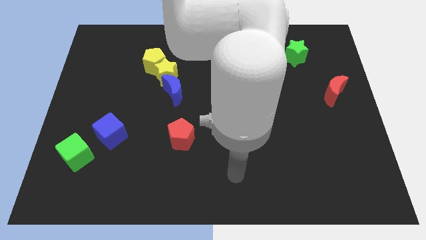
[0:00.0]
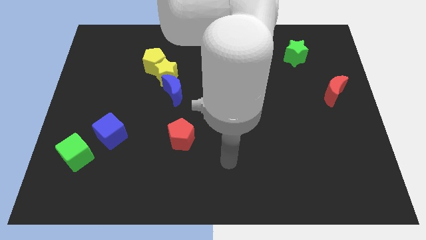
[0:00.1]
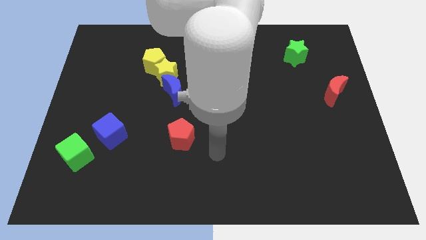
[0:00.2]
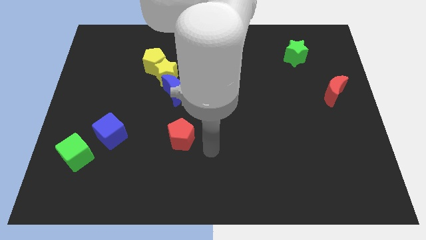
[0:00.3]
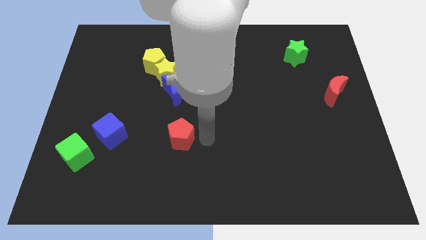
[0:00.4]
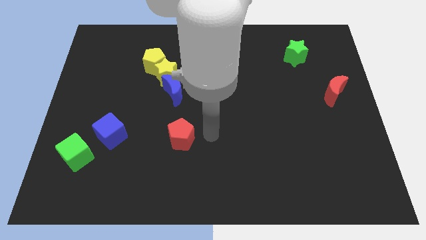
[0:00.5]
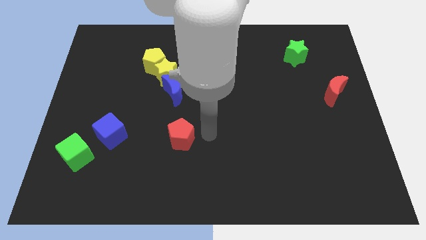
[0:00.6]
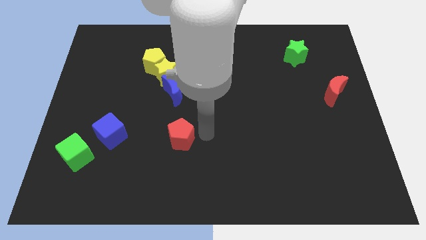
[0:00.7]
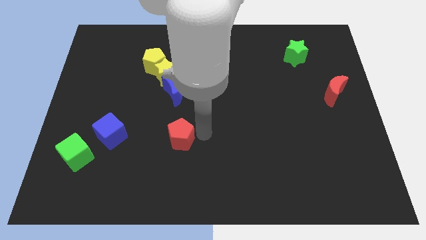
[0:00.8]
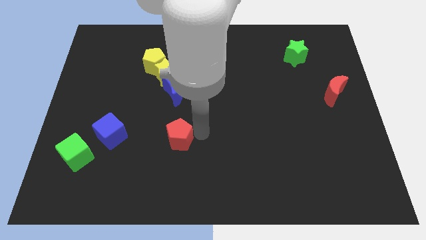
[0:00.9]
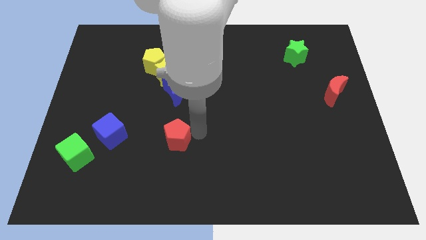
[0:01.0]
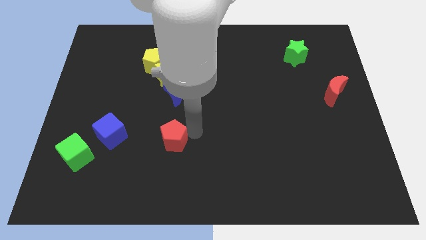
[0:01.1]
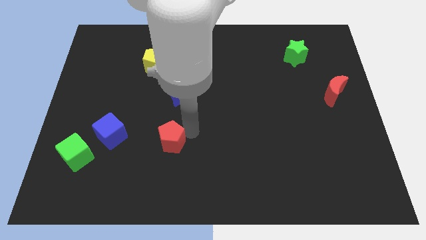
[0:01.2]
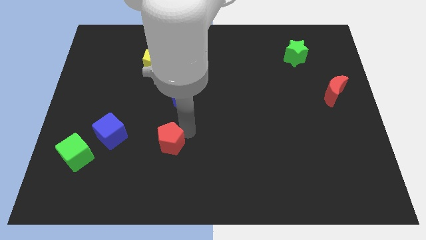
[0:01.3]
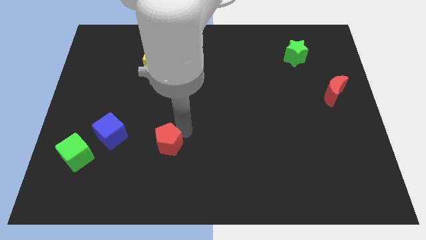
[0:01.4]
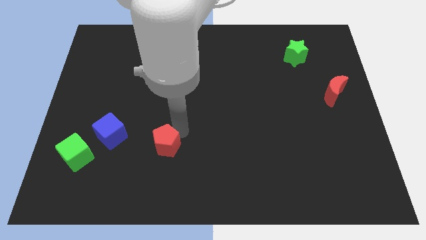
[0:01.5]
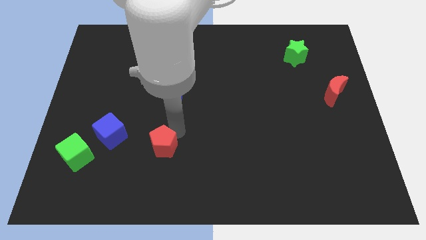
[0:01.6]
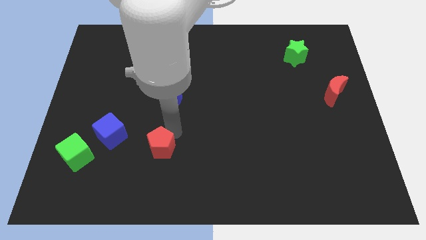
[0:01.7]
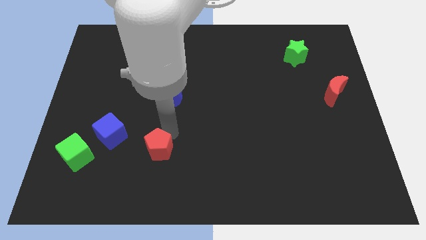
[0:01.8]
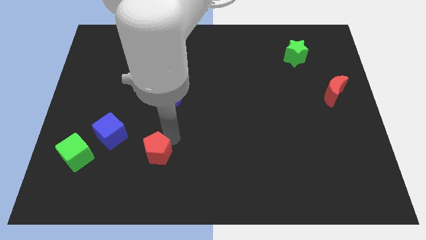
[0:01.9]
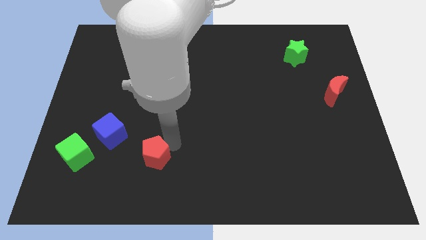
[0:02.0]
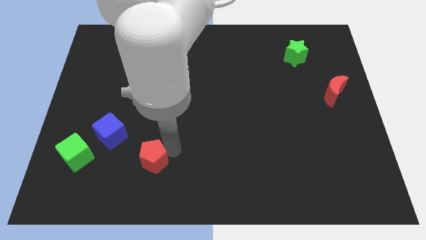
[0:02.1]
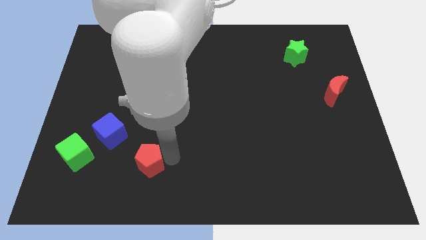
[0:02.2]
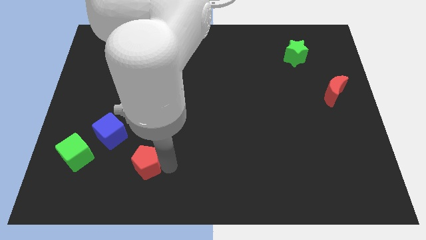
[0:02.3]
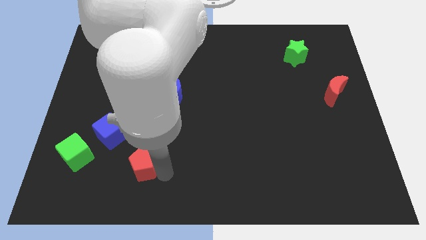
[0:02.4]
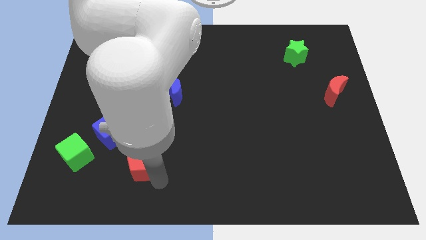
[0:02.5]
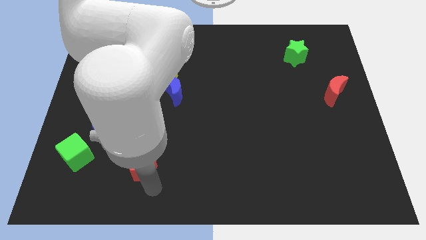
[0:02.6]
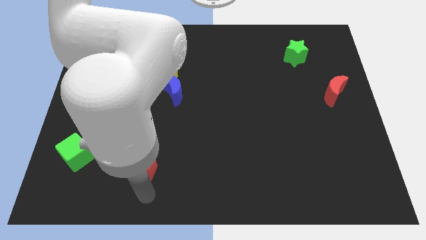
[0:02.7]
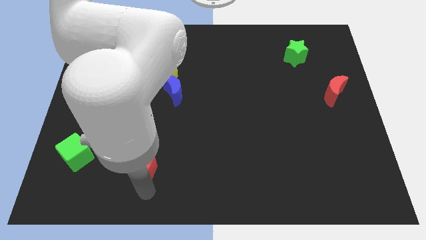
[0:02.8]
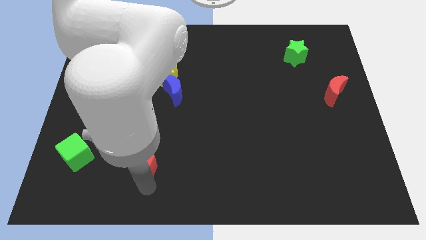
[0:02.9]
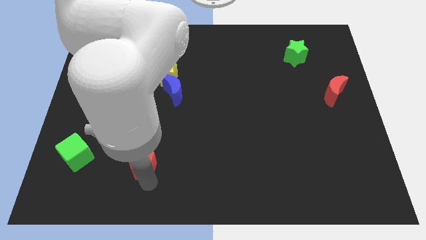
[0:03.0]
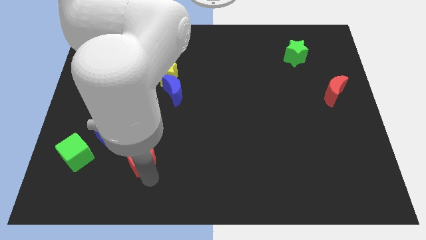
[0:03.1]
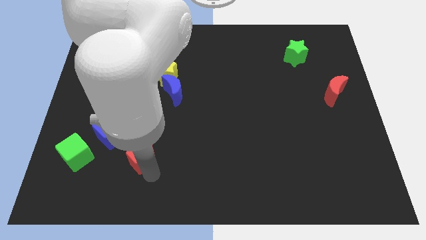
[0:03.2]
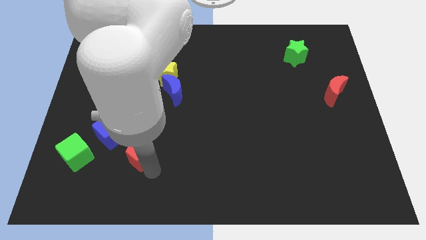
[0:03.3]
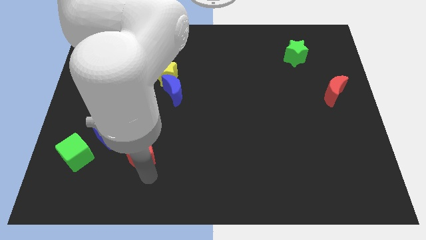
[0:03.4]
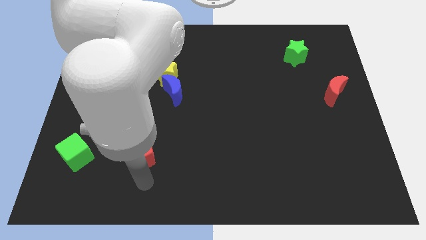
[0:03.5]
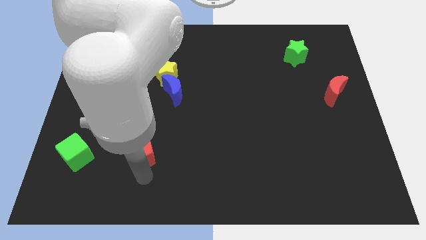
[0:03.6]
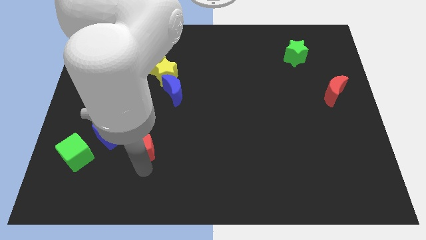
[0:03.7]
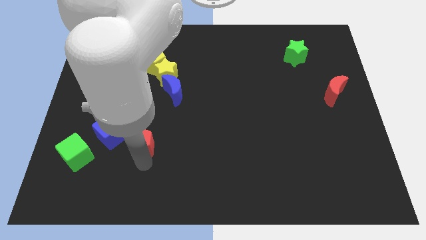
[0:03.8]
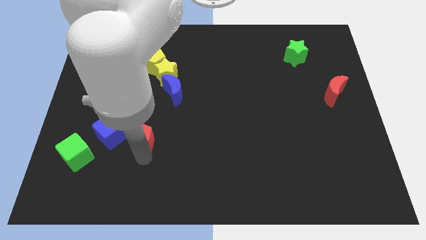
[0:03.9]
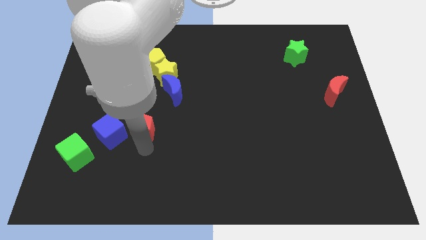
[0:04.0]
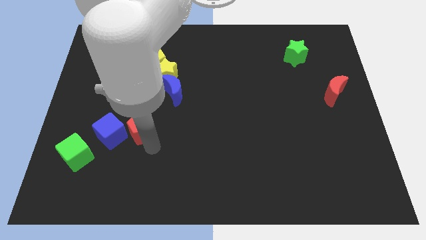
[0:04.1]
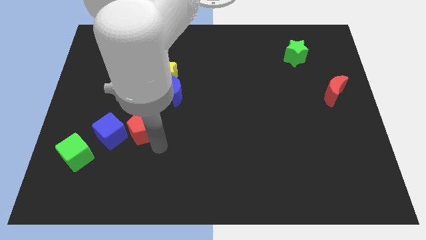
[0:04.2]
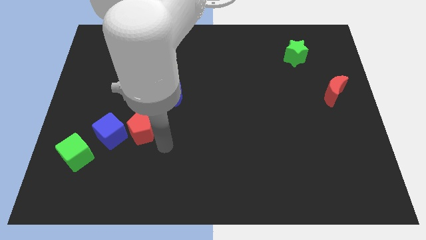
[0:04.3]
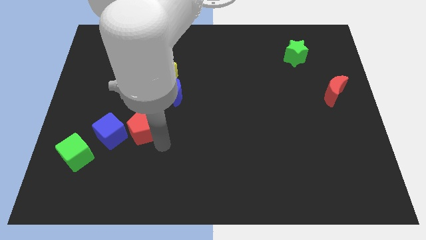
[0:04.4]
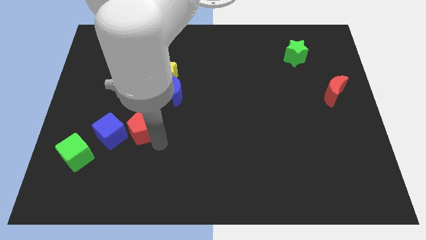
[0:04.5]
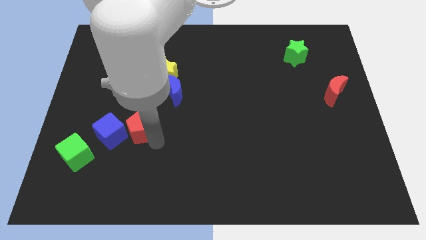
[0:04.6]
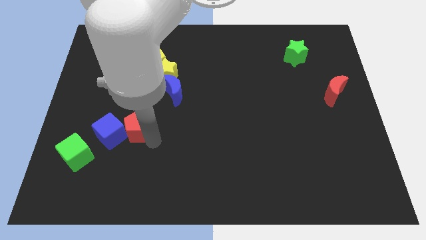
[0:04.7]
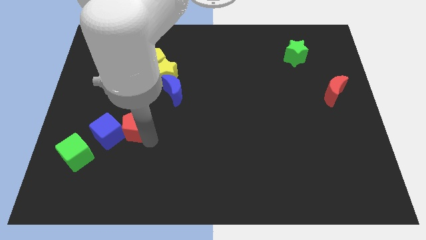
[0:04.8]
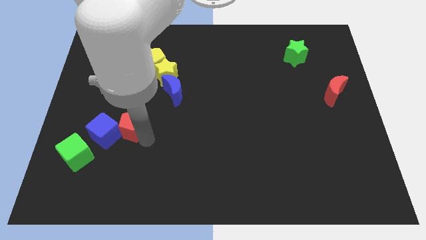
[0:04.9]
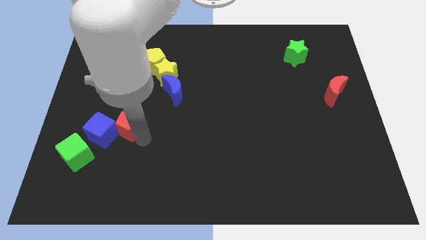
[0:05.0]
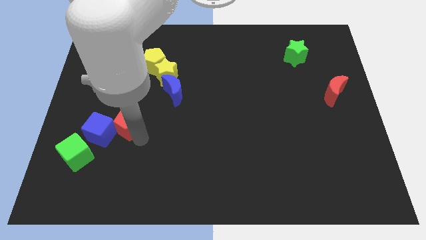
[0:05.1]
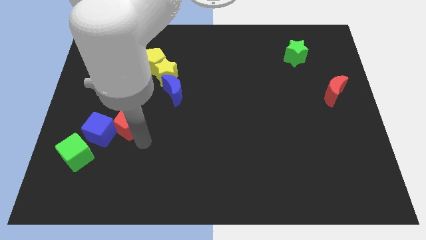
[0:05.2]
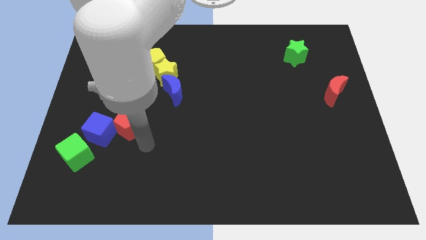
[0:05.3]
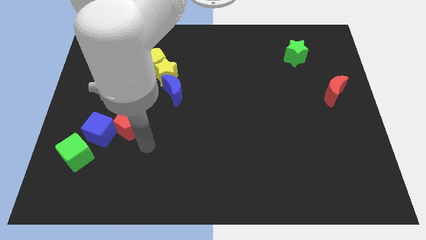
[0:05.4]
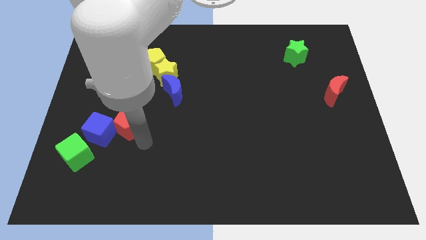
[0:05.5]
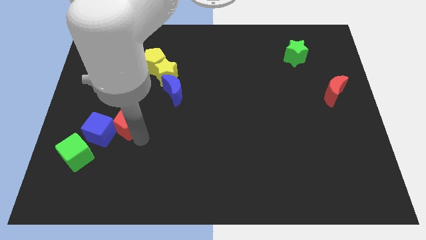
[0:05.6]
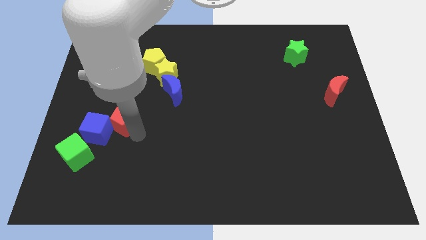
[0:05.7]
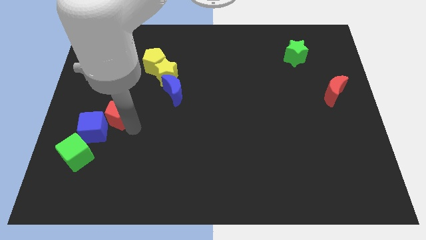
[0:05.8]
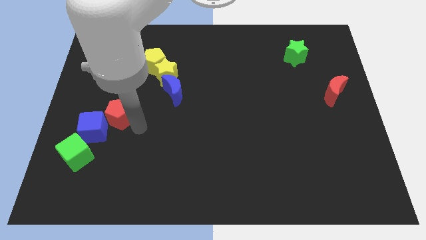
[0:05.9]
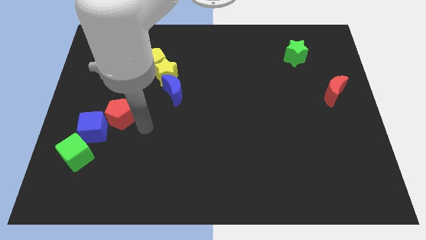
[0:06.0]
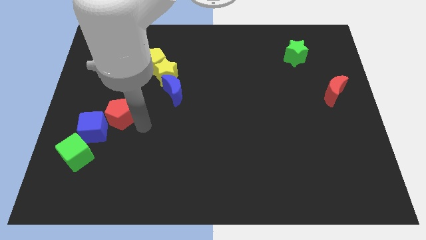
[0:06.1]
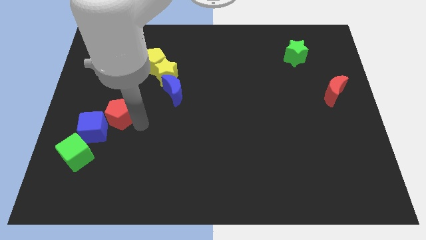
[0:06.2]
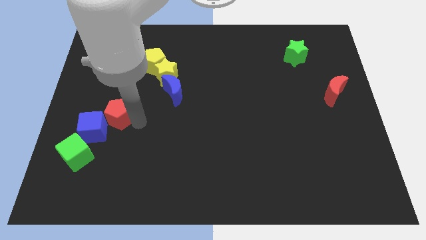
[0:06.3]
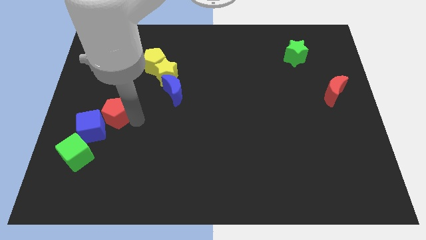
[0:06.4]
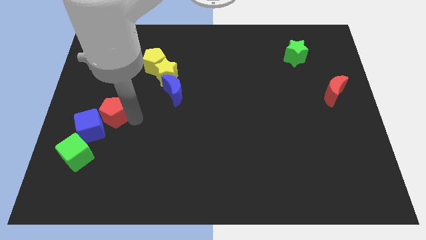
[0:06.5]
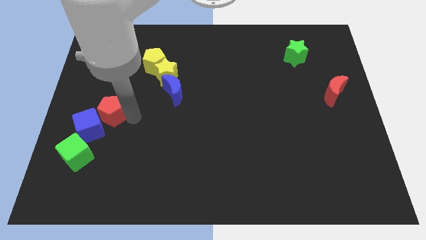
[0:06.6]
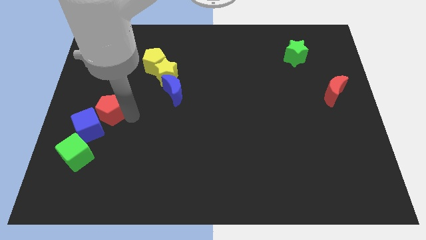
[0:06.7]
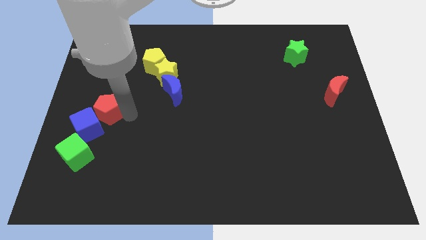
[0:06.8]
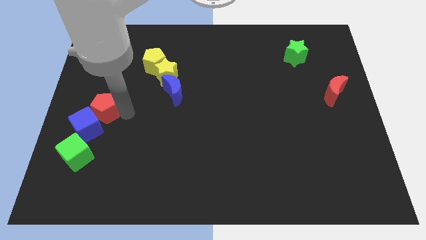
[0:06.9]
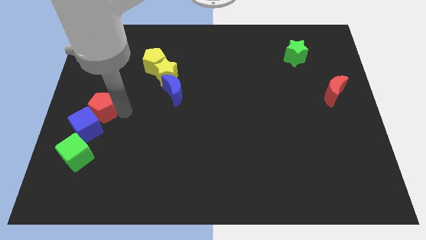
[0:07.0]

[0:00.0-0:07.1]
slide the red pentagon to the center left
